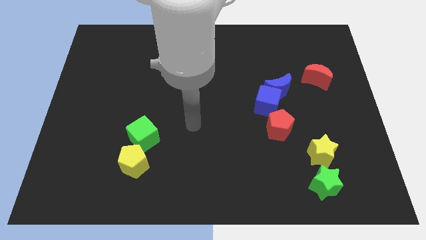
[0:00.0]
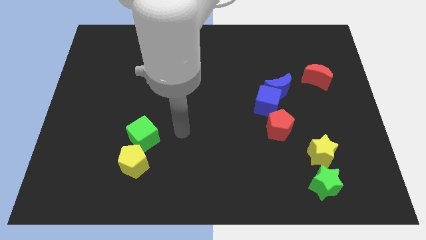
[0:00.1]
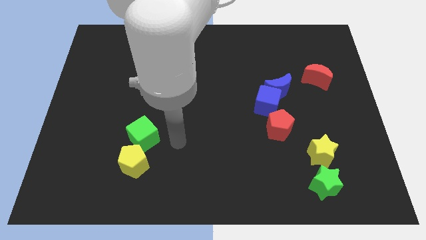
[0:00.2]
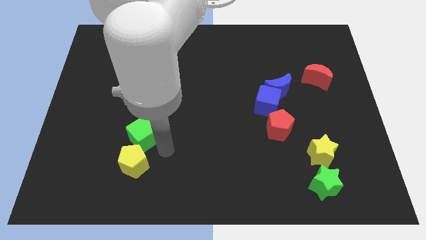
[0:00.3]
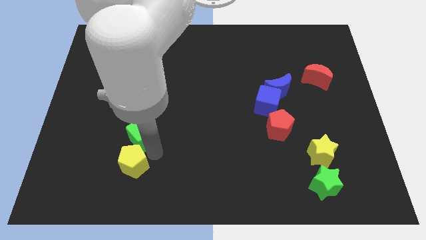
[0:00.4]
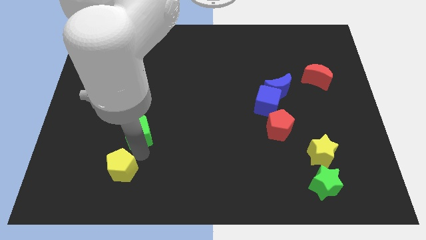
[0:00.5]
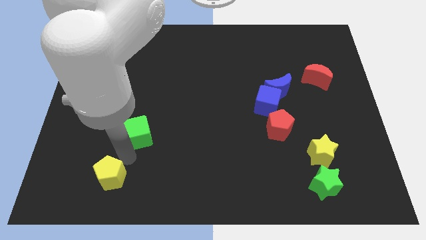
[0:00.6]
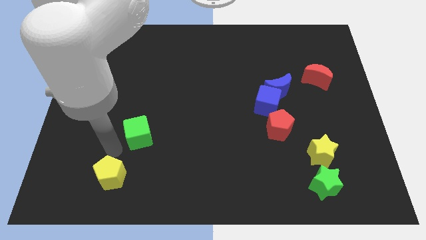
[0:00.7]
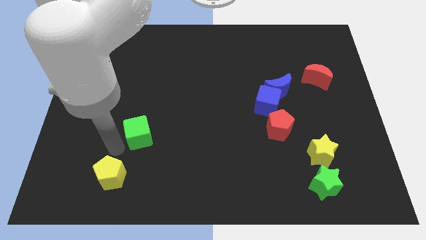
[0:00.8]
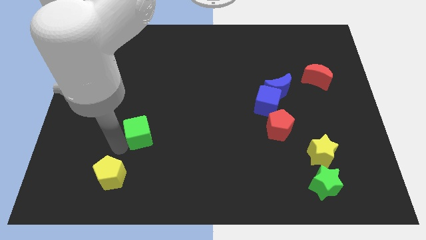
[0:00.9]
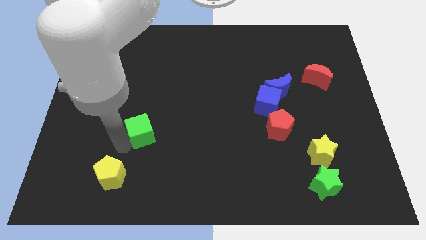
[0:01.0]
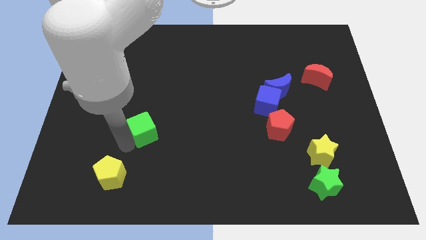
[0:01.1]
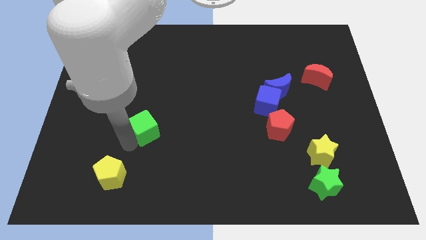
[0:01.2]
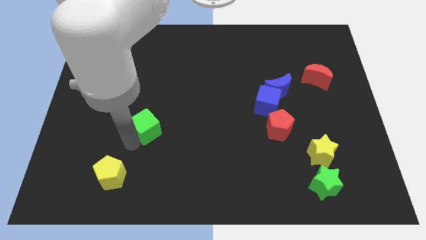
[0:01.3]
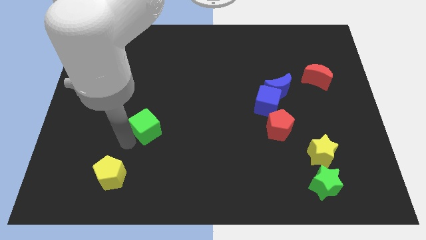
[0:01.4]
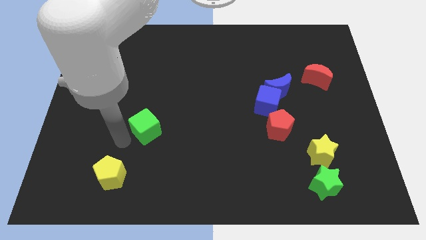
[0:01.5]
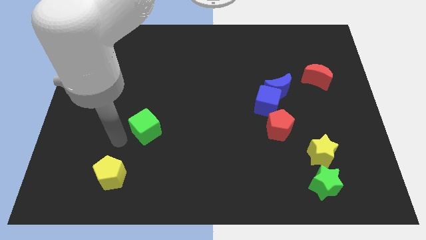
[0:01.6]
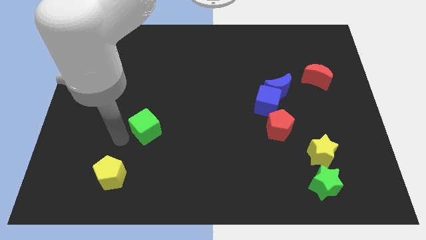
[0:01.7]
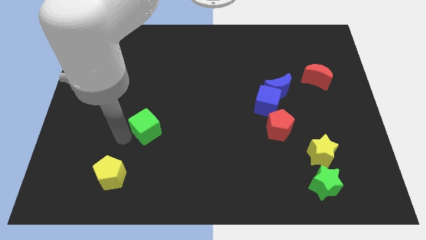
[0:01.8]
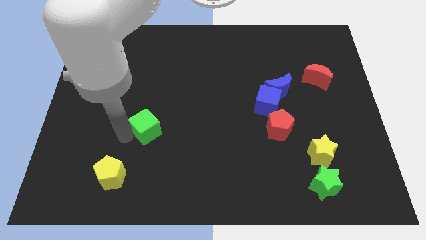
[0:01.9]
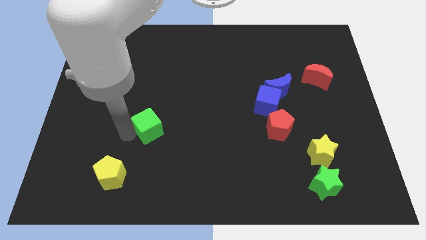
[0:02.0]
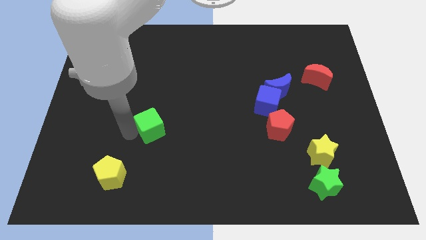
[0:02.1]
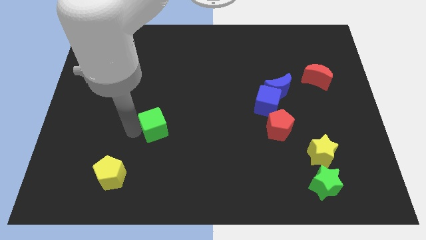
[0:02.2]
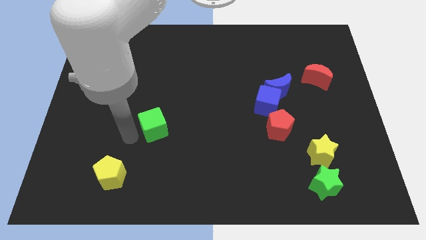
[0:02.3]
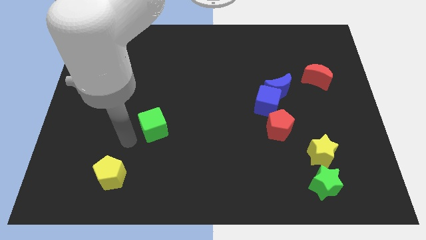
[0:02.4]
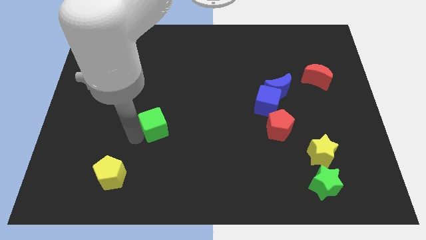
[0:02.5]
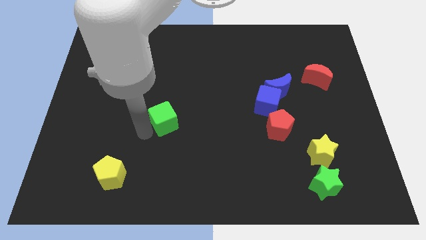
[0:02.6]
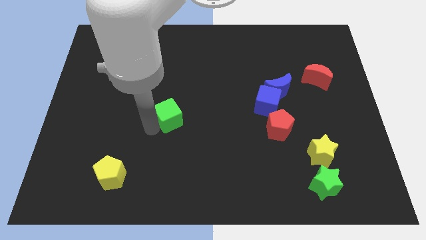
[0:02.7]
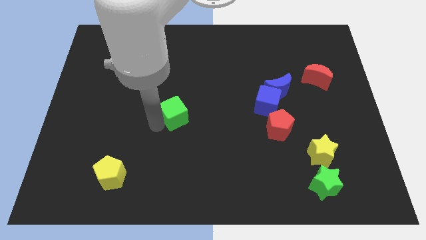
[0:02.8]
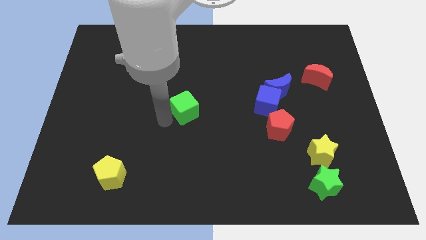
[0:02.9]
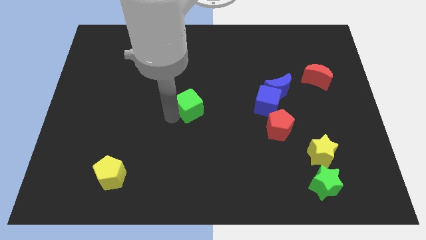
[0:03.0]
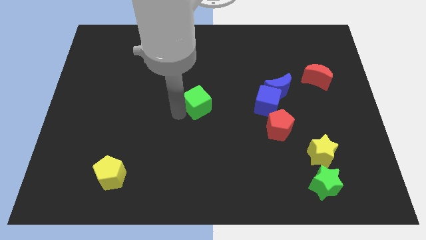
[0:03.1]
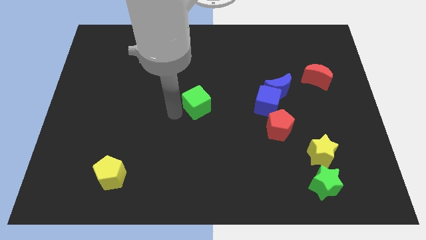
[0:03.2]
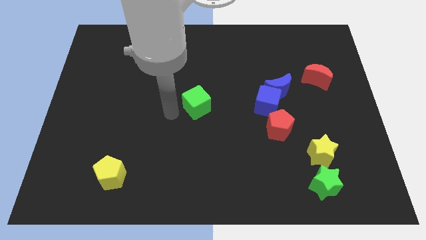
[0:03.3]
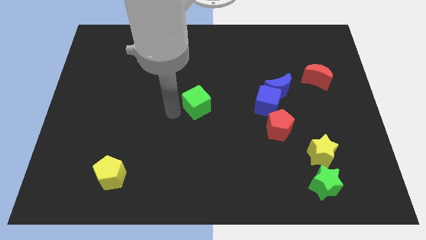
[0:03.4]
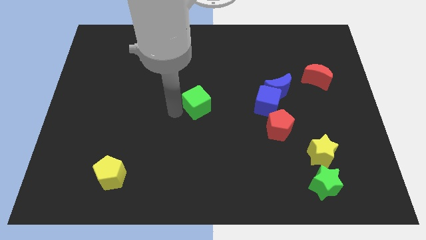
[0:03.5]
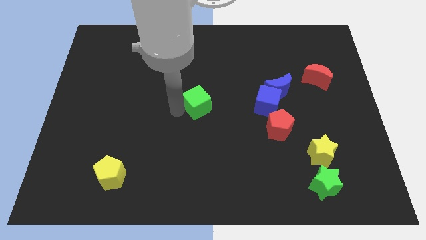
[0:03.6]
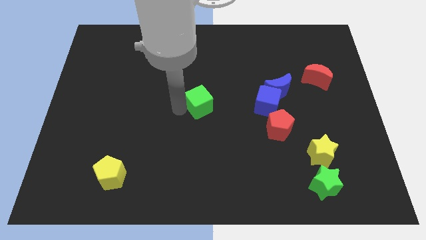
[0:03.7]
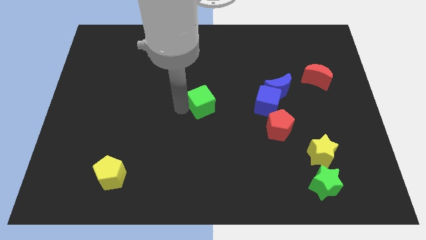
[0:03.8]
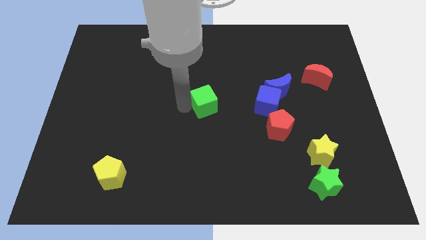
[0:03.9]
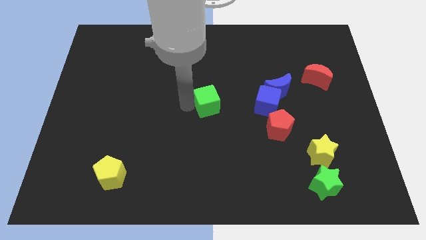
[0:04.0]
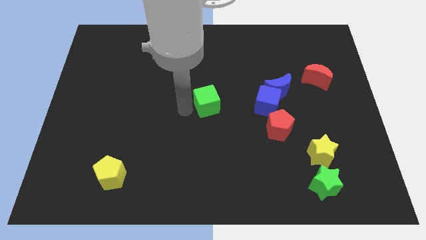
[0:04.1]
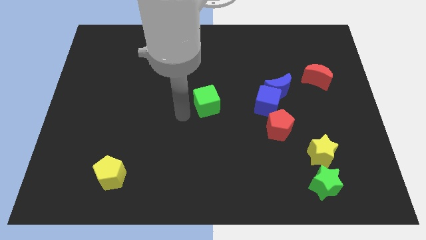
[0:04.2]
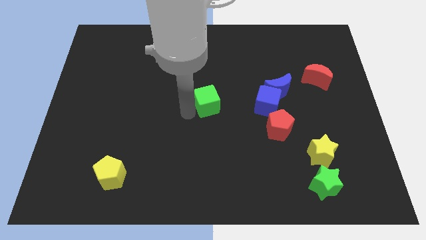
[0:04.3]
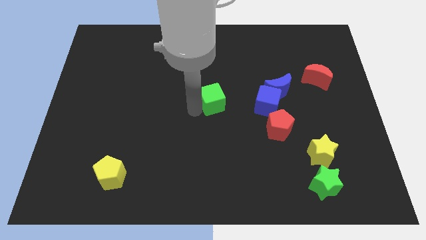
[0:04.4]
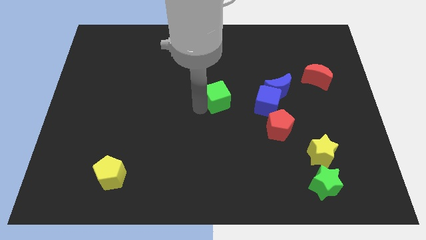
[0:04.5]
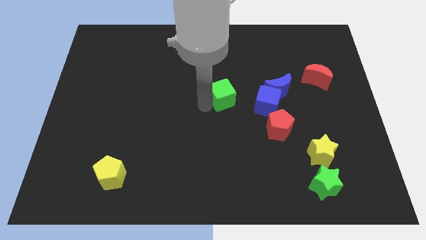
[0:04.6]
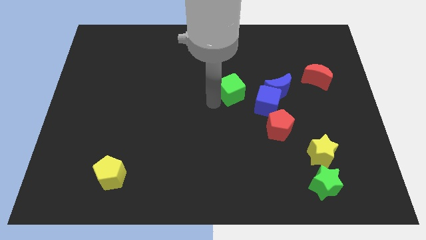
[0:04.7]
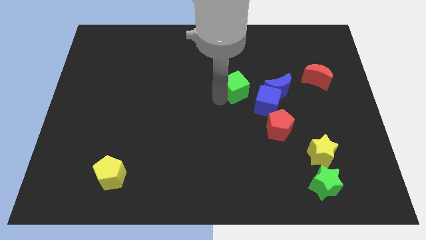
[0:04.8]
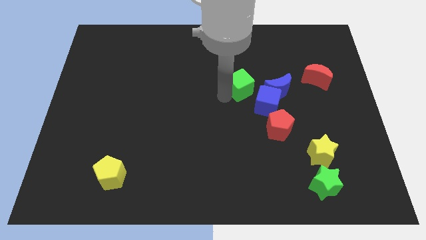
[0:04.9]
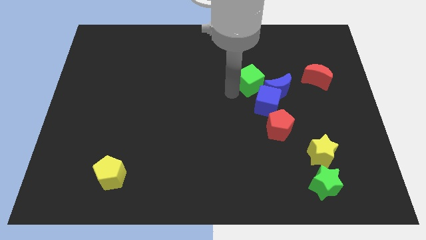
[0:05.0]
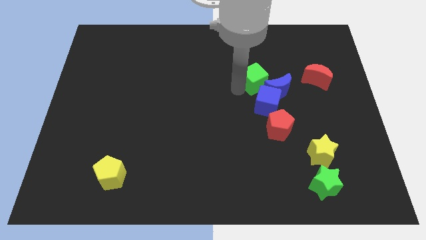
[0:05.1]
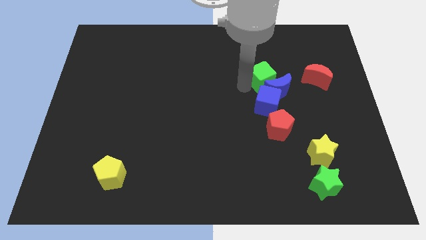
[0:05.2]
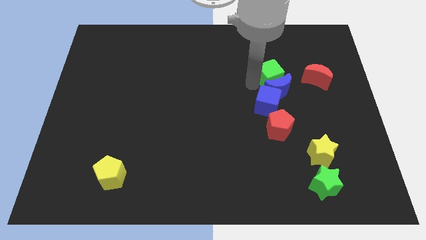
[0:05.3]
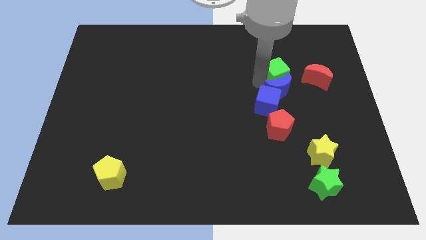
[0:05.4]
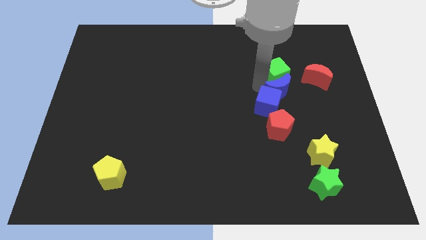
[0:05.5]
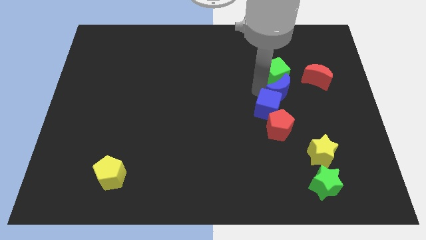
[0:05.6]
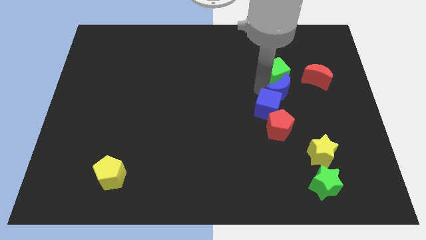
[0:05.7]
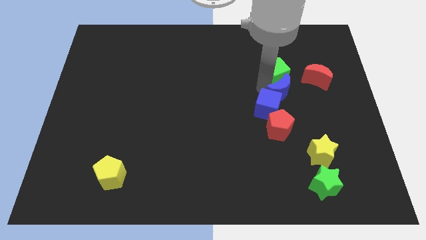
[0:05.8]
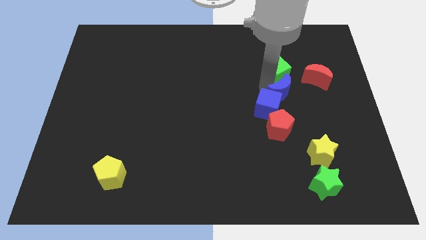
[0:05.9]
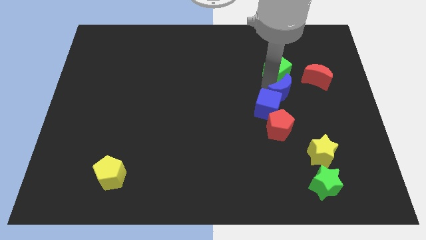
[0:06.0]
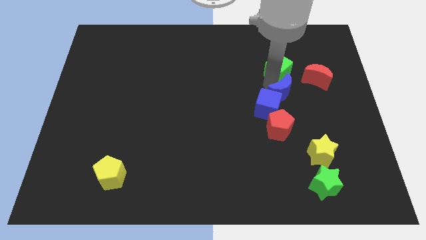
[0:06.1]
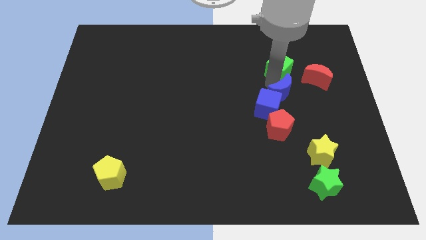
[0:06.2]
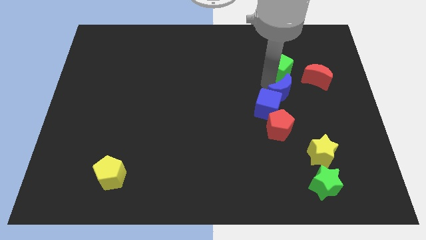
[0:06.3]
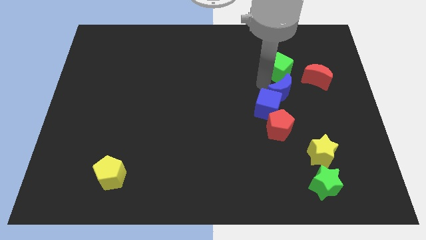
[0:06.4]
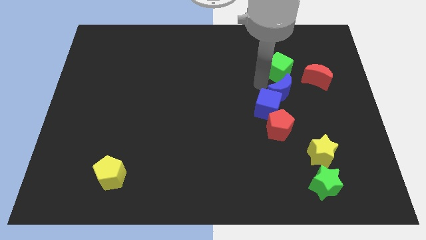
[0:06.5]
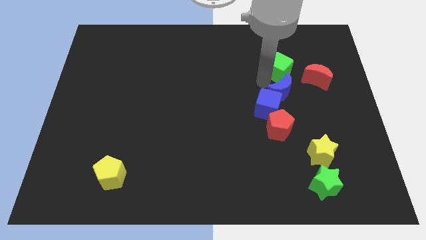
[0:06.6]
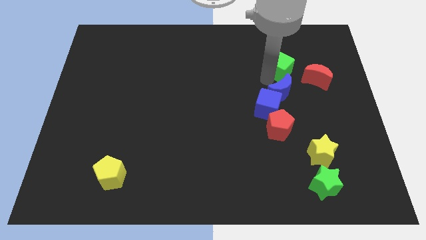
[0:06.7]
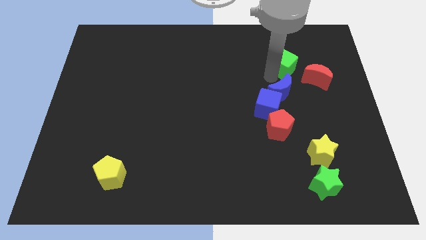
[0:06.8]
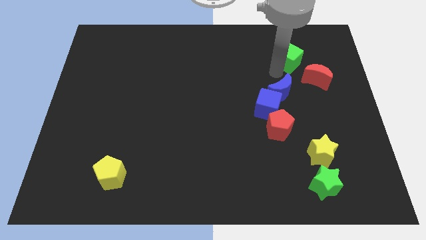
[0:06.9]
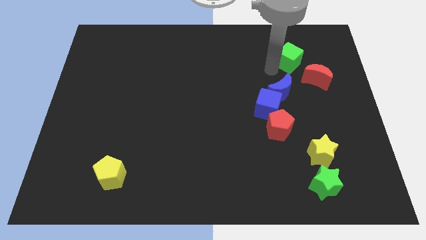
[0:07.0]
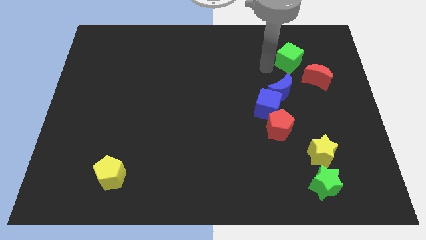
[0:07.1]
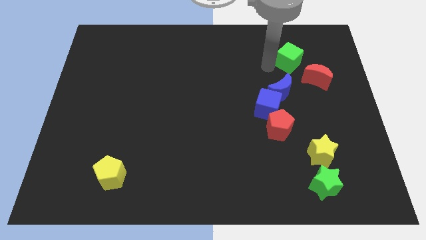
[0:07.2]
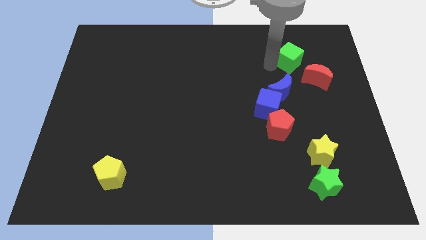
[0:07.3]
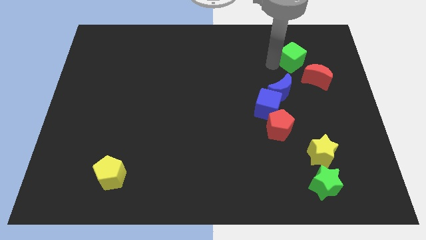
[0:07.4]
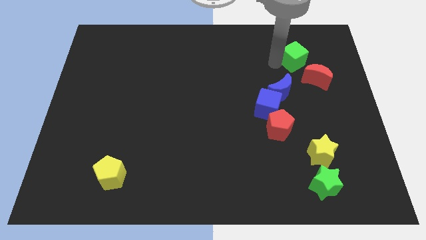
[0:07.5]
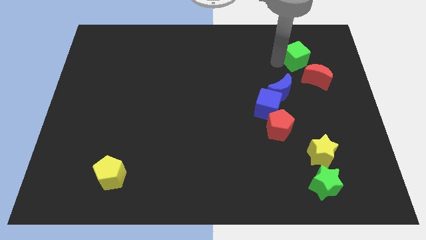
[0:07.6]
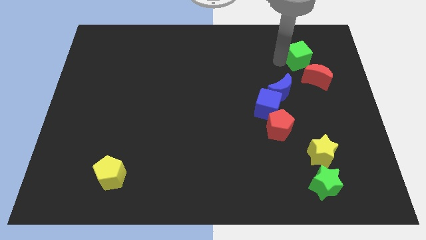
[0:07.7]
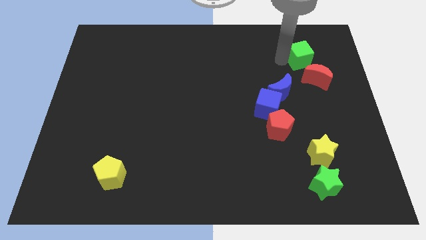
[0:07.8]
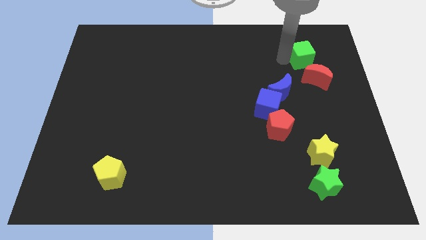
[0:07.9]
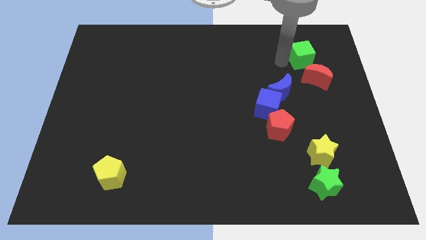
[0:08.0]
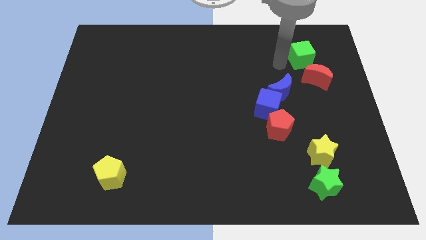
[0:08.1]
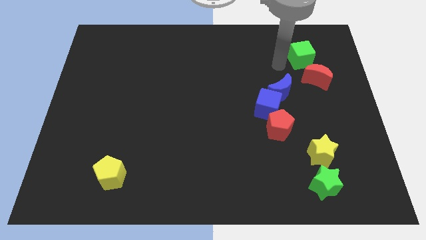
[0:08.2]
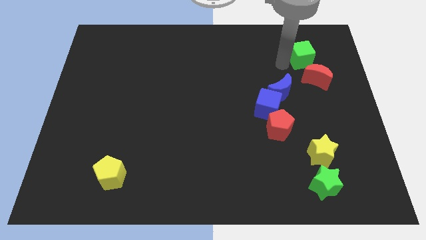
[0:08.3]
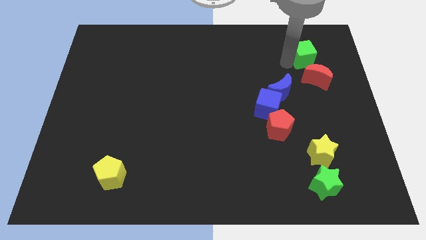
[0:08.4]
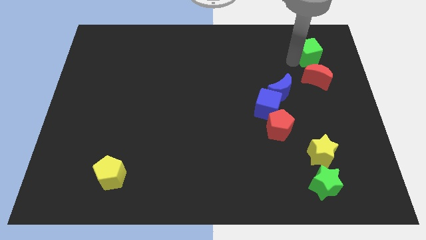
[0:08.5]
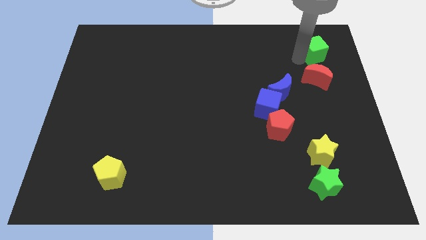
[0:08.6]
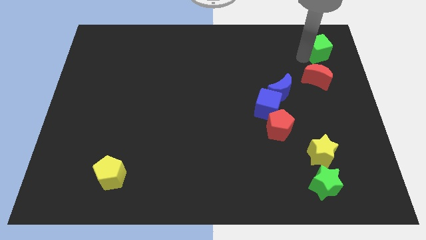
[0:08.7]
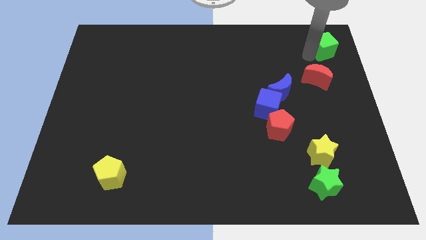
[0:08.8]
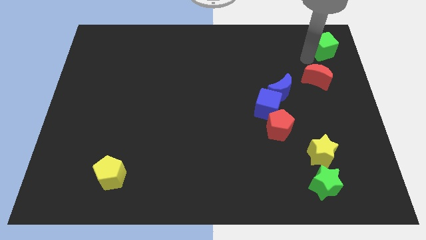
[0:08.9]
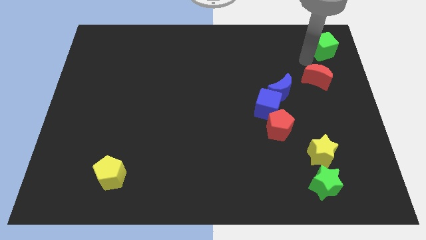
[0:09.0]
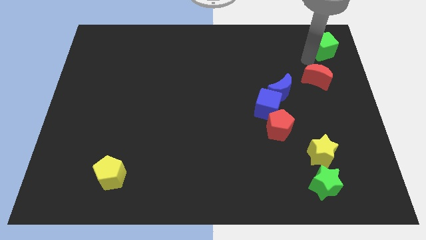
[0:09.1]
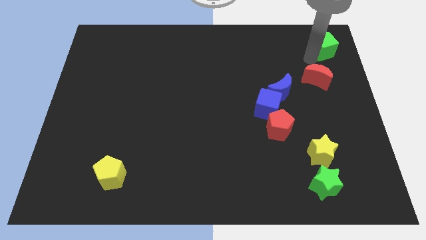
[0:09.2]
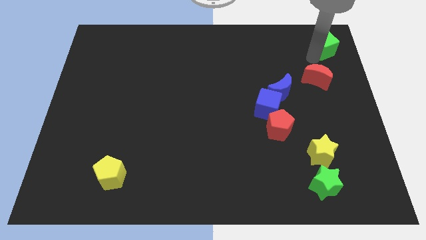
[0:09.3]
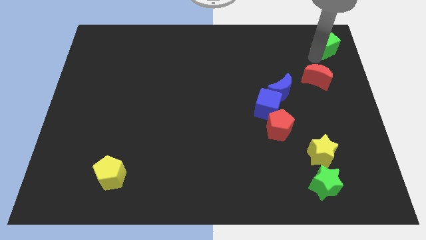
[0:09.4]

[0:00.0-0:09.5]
push the green cube to the upper right corner
